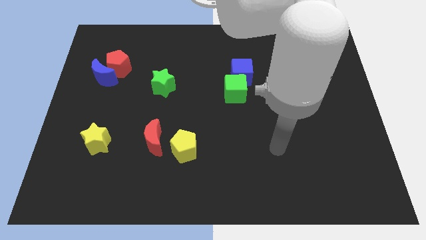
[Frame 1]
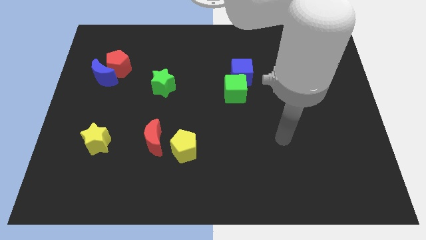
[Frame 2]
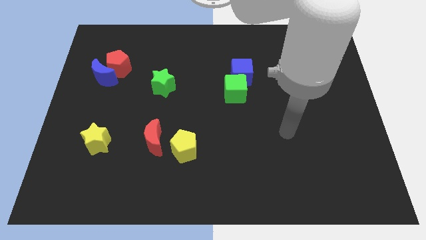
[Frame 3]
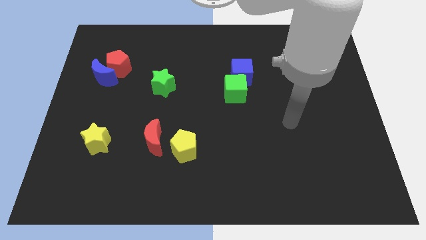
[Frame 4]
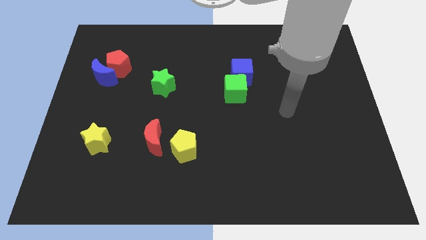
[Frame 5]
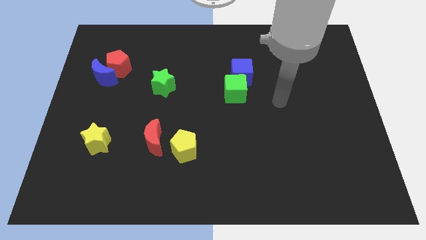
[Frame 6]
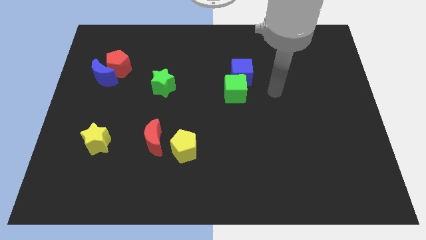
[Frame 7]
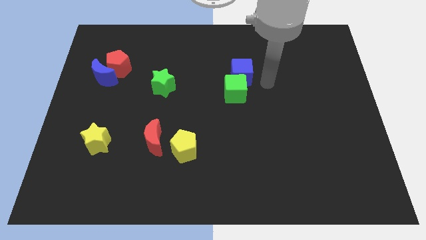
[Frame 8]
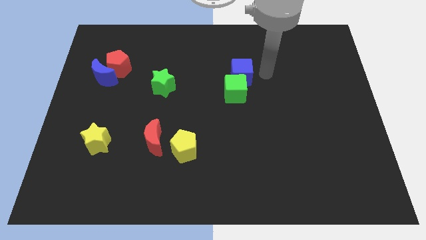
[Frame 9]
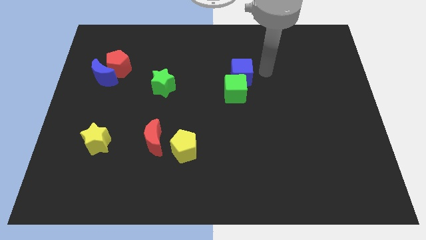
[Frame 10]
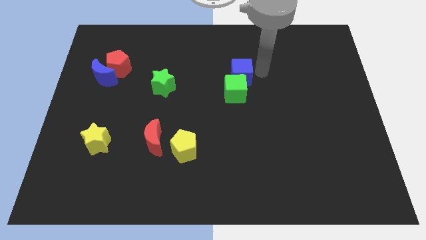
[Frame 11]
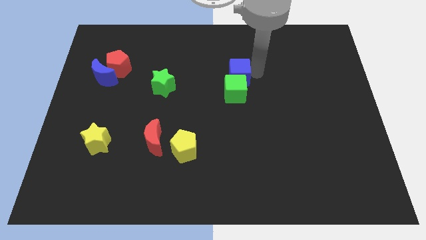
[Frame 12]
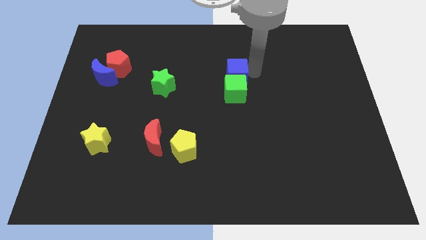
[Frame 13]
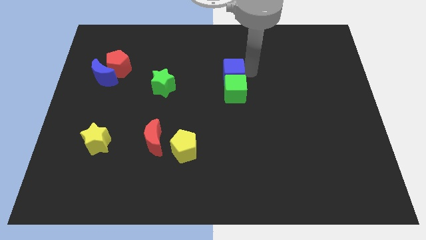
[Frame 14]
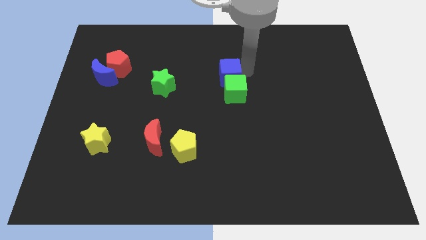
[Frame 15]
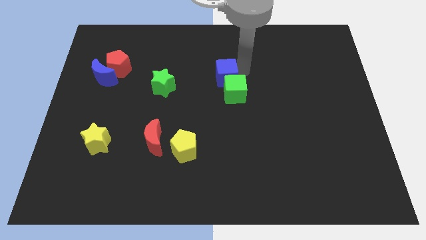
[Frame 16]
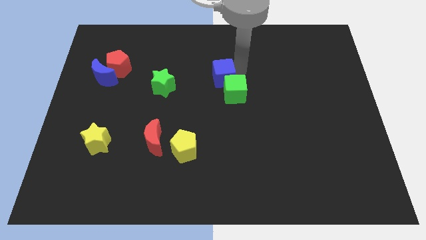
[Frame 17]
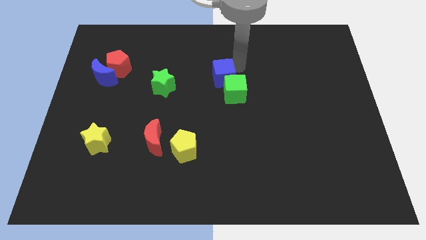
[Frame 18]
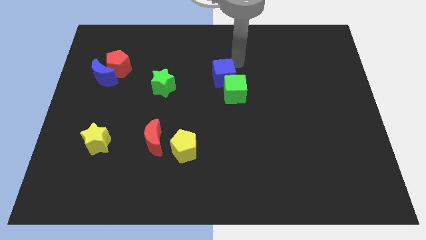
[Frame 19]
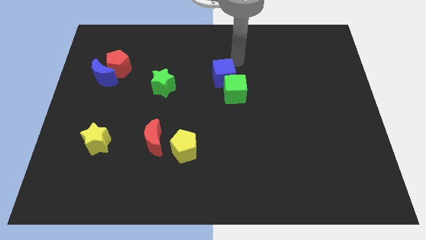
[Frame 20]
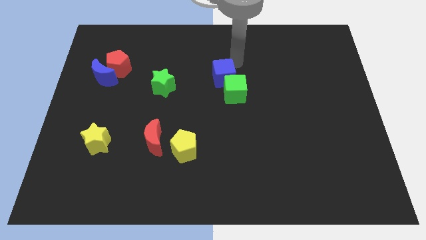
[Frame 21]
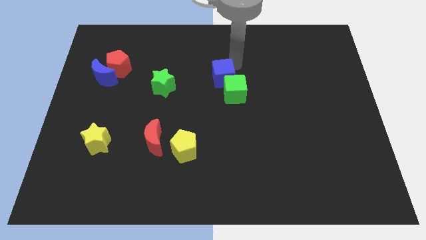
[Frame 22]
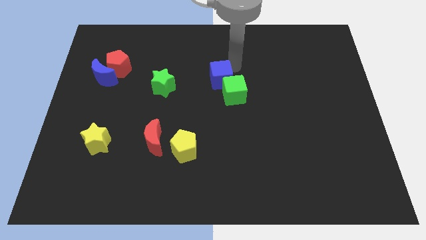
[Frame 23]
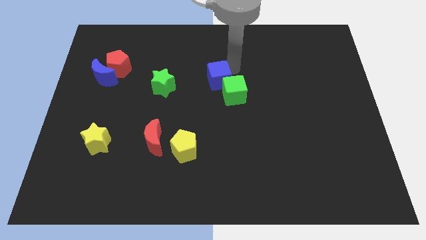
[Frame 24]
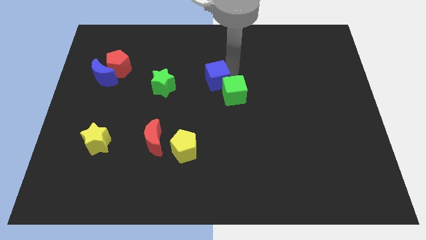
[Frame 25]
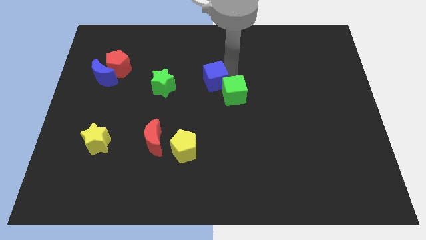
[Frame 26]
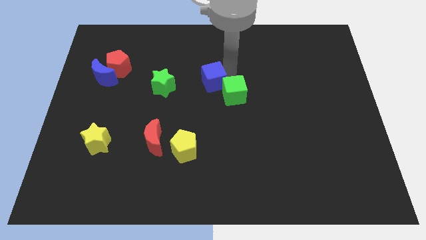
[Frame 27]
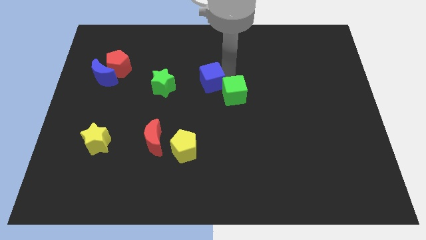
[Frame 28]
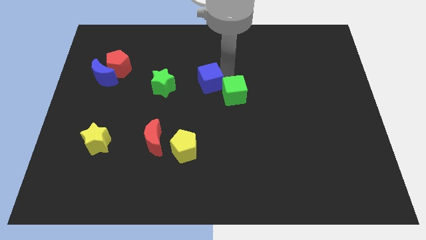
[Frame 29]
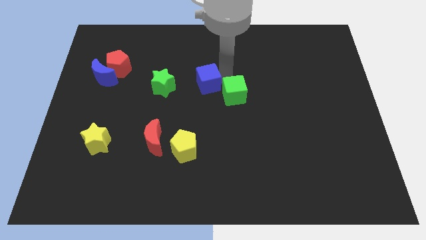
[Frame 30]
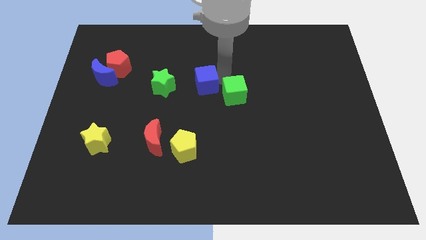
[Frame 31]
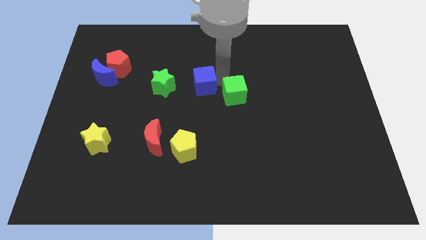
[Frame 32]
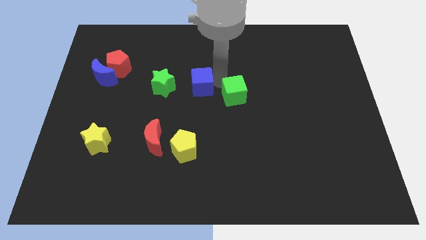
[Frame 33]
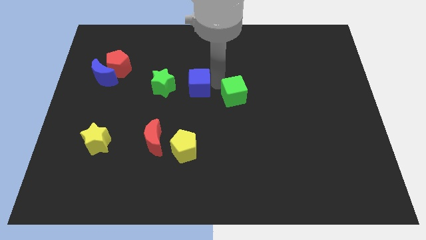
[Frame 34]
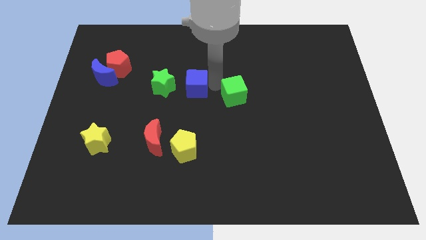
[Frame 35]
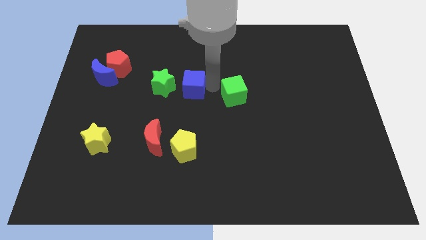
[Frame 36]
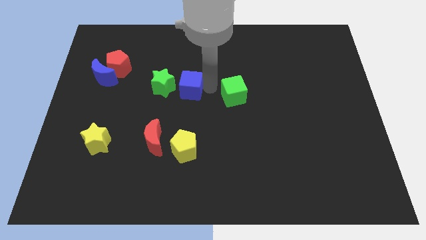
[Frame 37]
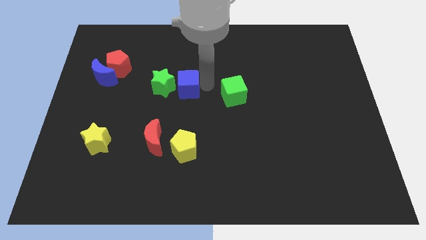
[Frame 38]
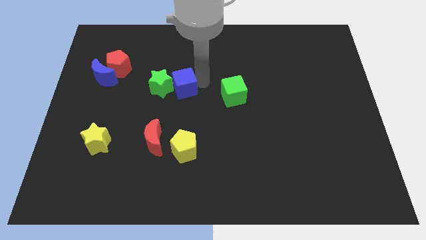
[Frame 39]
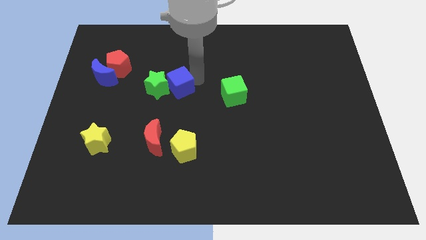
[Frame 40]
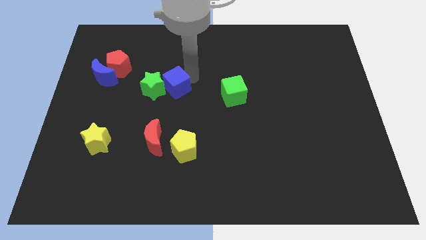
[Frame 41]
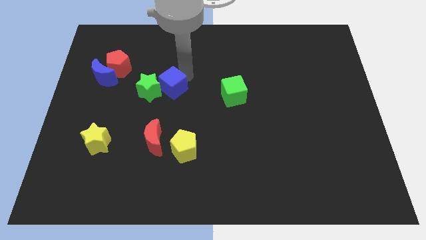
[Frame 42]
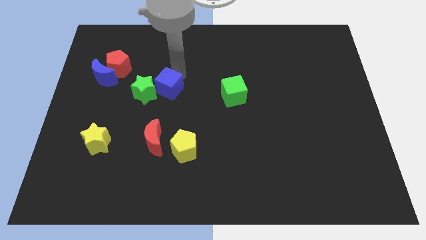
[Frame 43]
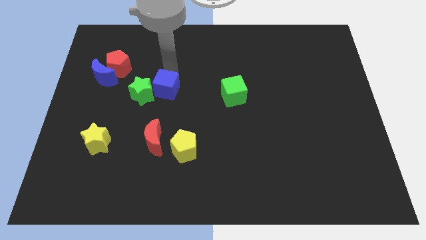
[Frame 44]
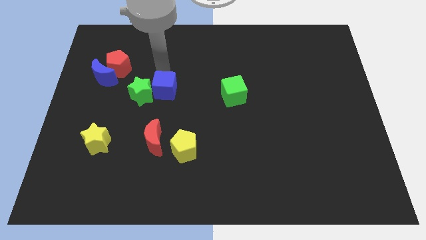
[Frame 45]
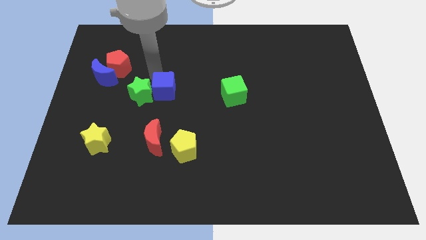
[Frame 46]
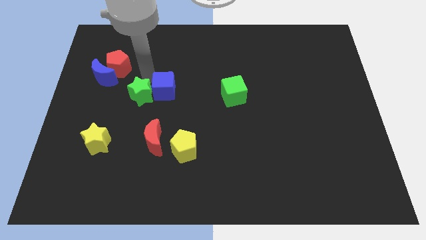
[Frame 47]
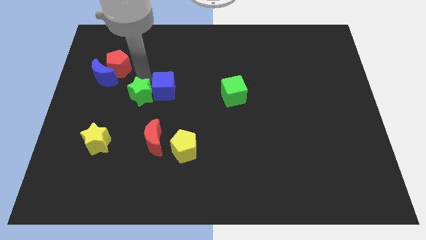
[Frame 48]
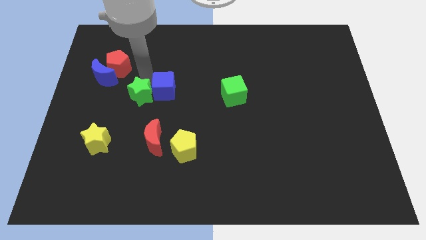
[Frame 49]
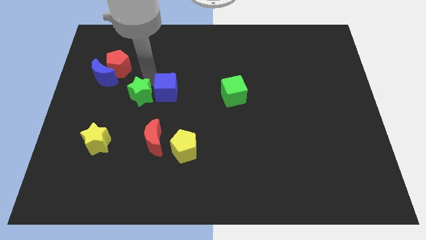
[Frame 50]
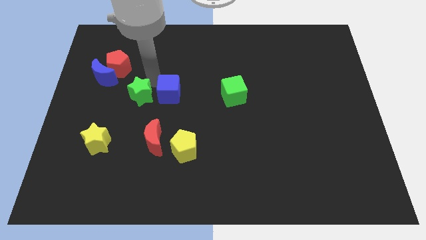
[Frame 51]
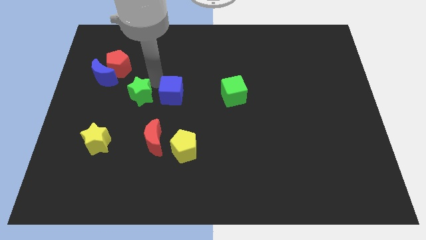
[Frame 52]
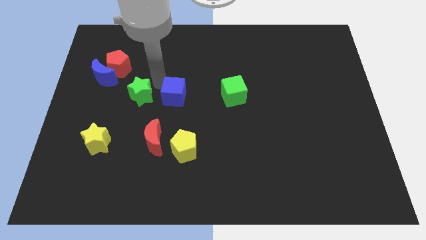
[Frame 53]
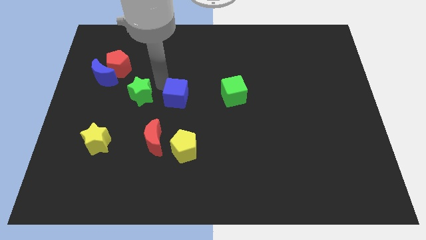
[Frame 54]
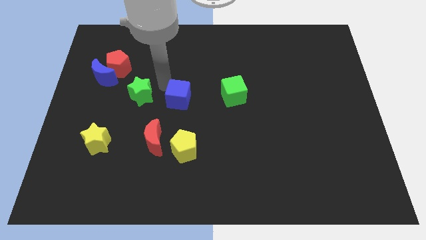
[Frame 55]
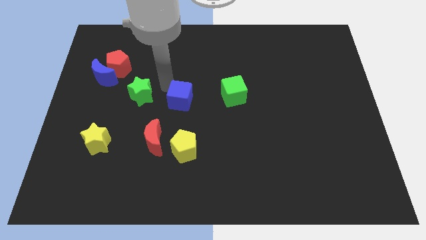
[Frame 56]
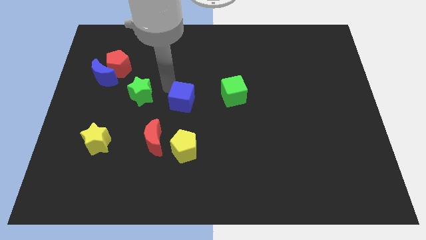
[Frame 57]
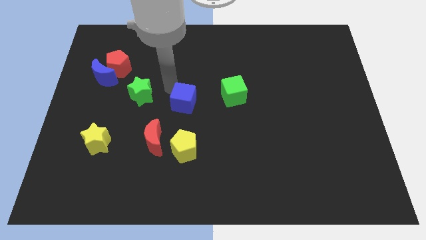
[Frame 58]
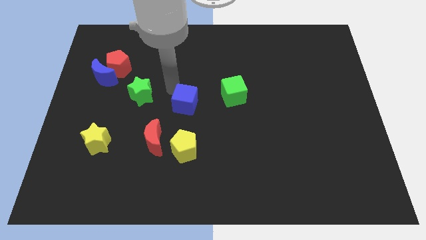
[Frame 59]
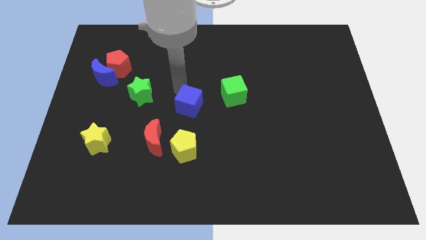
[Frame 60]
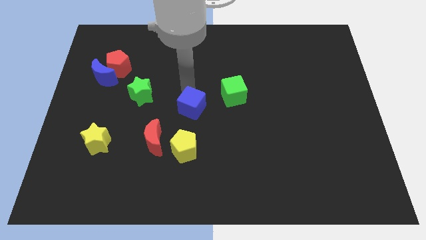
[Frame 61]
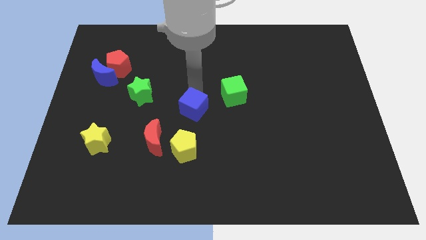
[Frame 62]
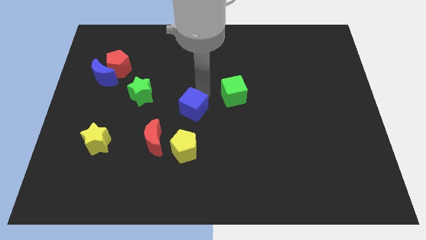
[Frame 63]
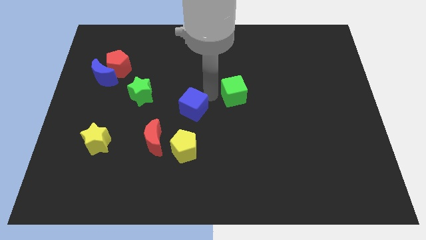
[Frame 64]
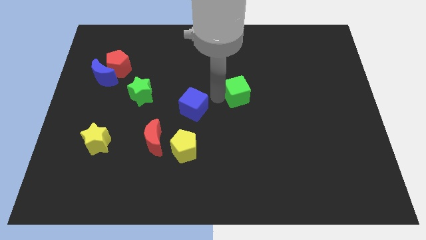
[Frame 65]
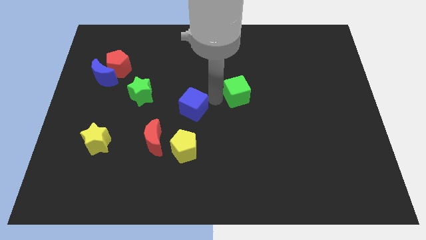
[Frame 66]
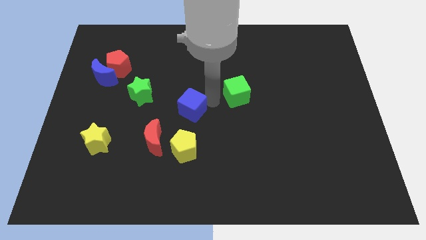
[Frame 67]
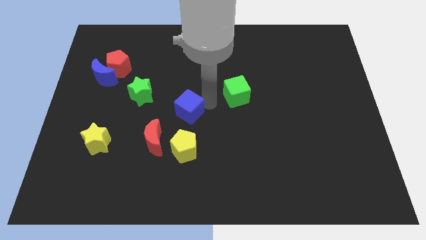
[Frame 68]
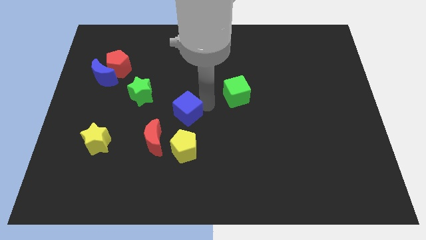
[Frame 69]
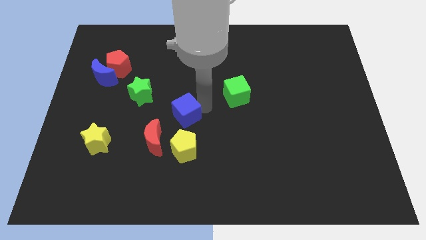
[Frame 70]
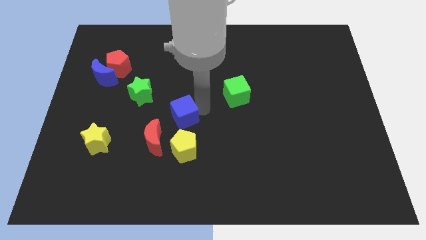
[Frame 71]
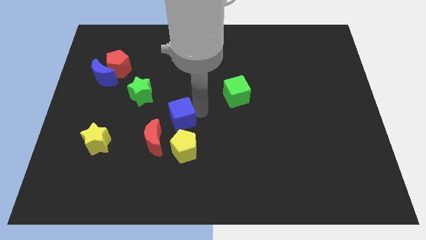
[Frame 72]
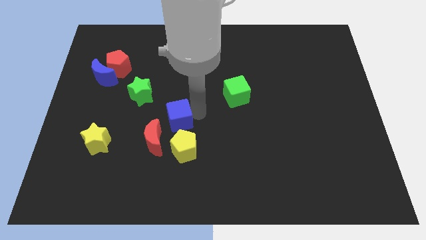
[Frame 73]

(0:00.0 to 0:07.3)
move the blue cube downwards and left

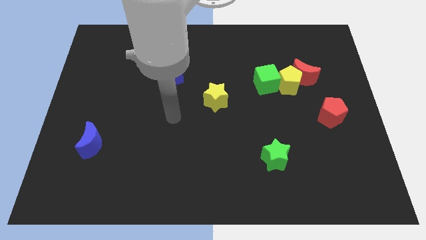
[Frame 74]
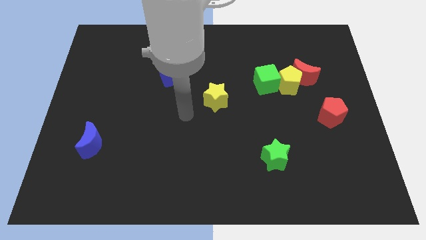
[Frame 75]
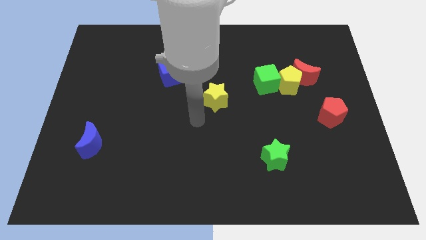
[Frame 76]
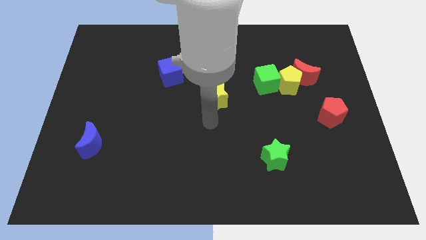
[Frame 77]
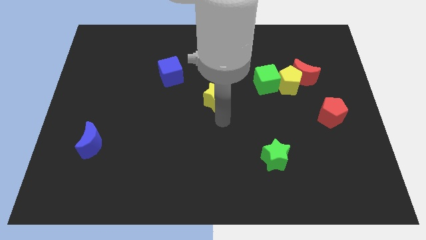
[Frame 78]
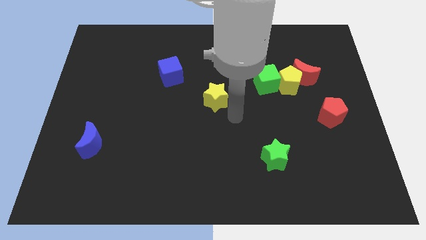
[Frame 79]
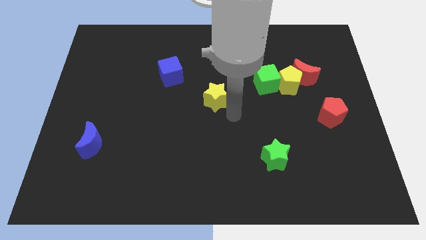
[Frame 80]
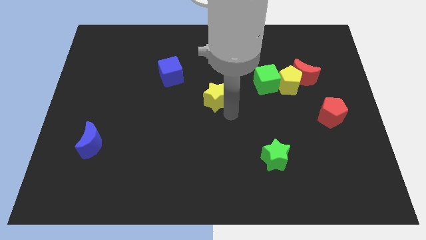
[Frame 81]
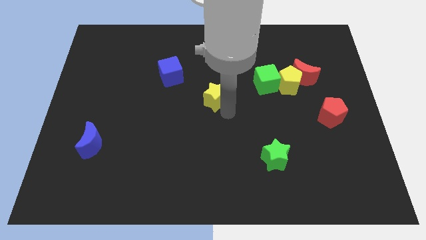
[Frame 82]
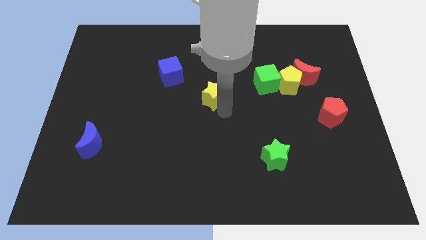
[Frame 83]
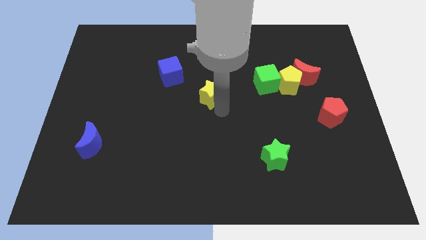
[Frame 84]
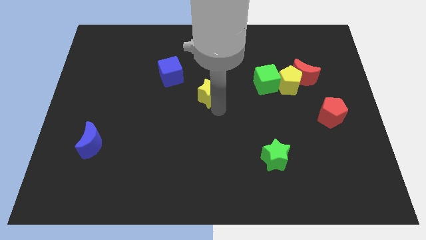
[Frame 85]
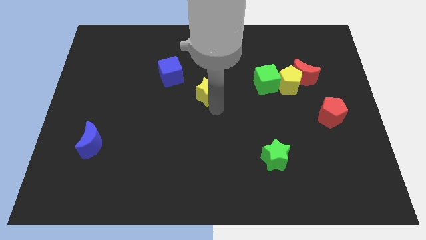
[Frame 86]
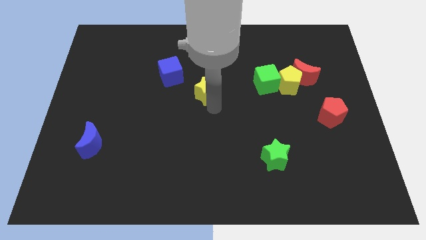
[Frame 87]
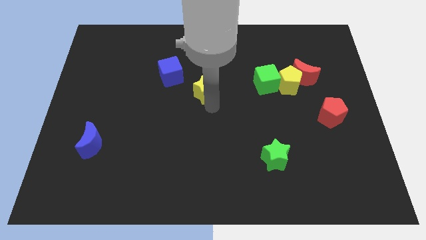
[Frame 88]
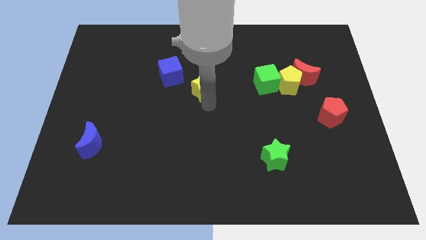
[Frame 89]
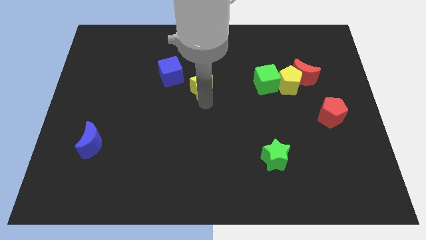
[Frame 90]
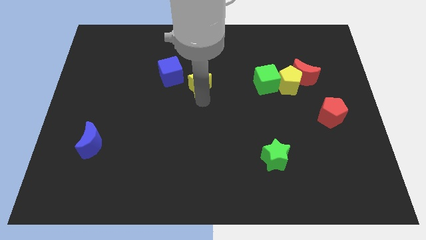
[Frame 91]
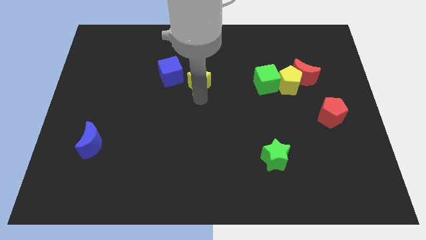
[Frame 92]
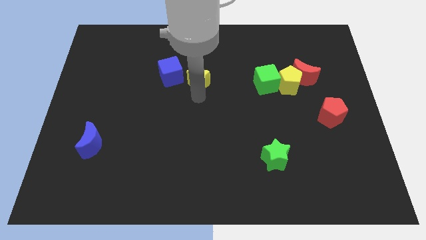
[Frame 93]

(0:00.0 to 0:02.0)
slide the yellow star up and left diagonally a little
